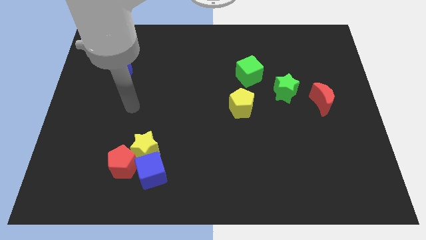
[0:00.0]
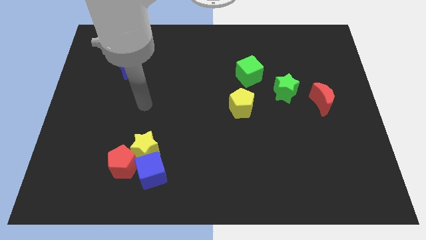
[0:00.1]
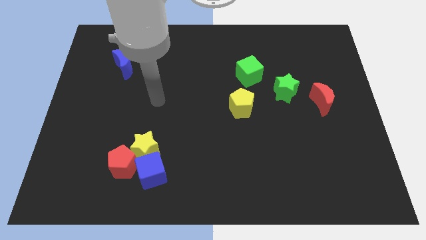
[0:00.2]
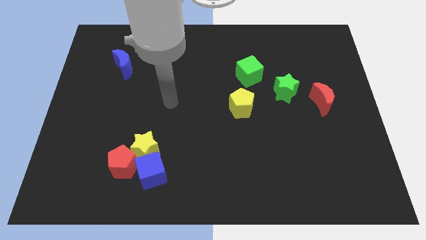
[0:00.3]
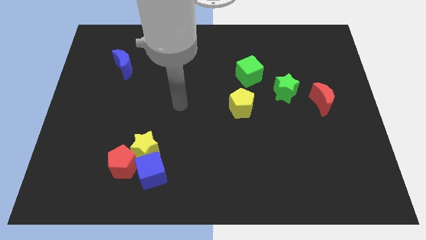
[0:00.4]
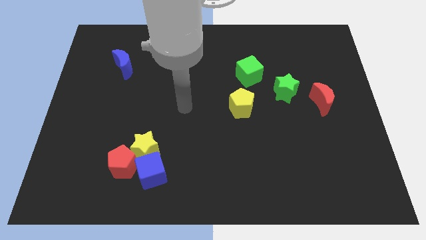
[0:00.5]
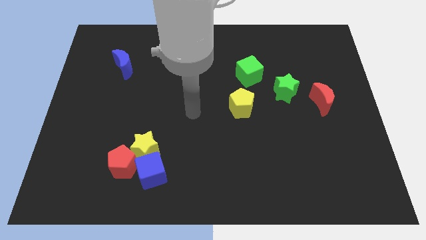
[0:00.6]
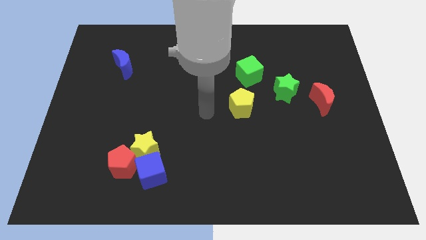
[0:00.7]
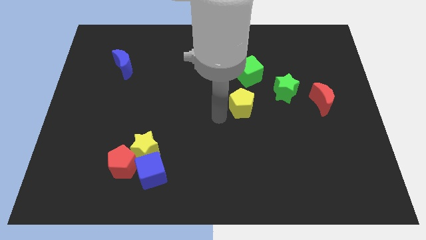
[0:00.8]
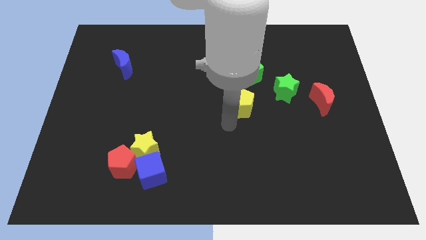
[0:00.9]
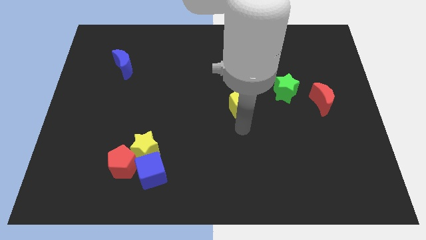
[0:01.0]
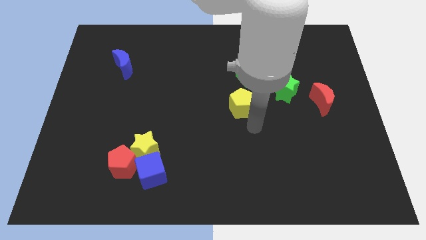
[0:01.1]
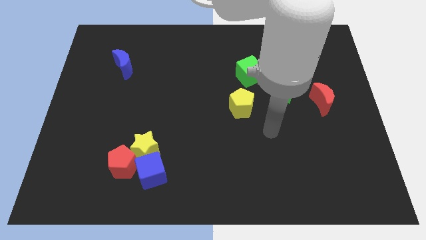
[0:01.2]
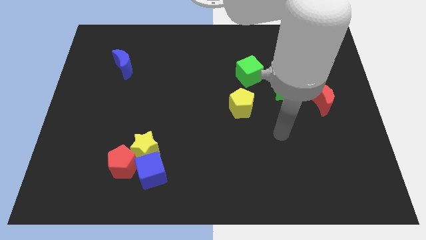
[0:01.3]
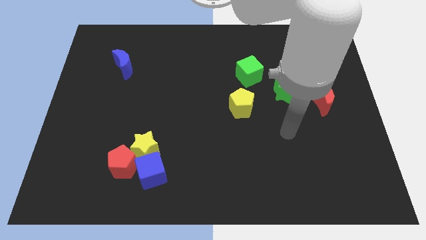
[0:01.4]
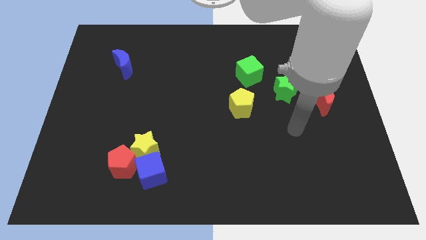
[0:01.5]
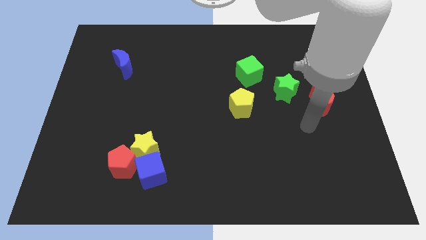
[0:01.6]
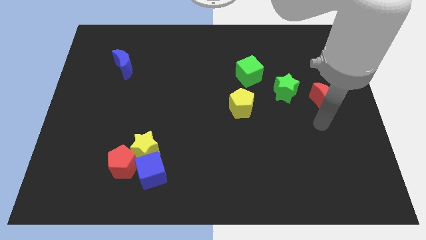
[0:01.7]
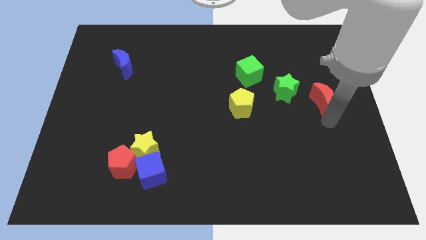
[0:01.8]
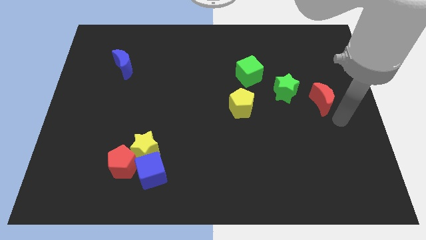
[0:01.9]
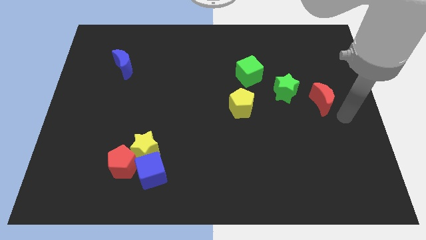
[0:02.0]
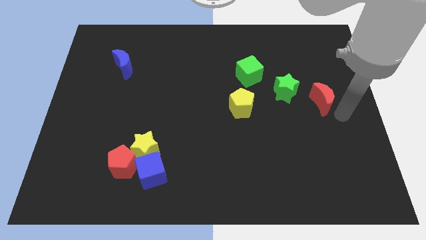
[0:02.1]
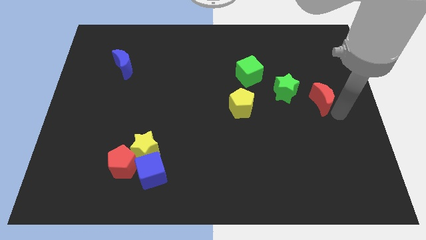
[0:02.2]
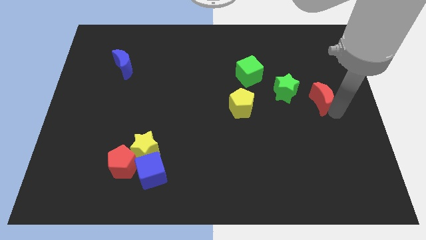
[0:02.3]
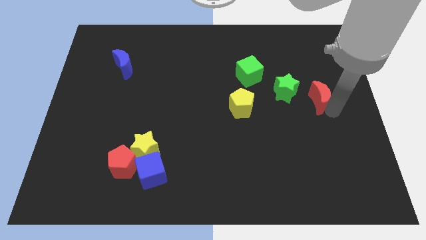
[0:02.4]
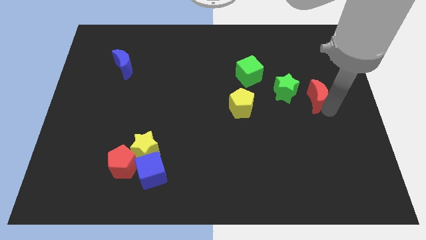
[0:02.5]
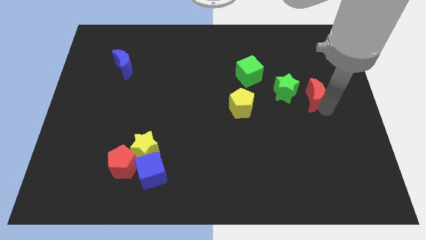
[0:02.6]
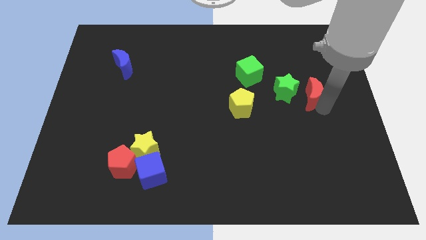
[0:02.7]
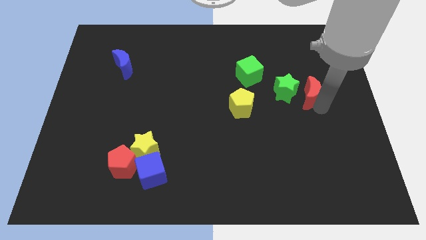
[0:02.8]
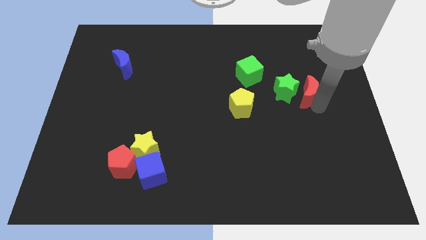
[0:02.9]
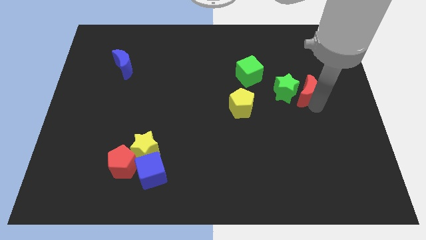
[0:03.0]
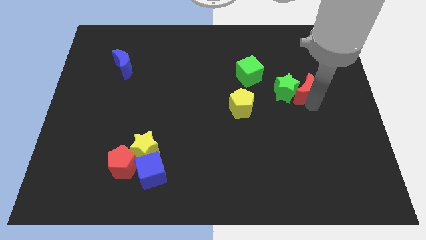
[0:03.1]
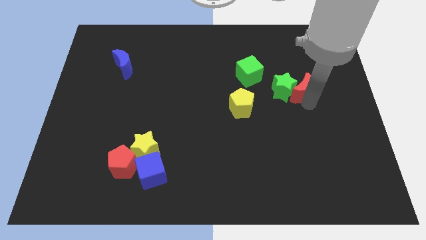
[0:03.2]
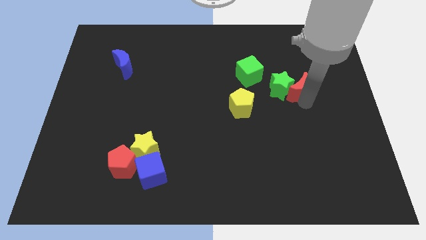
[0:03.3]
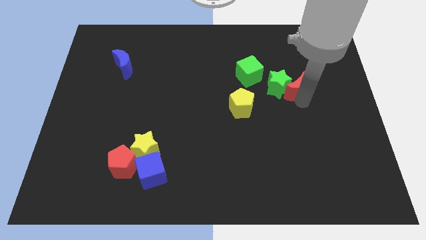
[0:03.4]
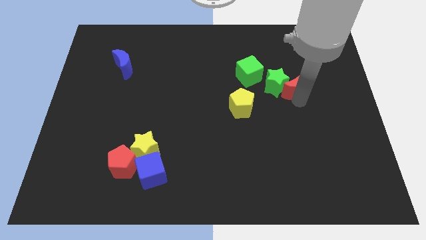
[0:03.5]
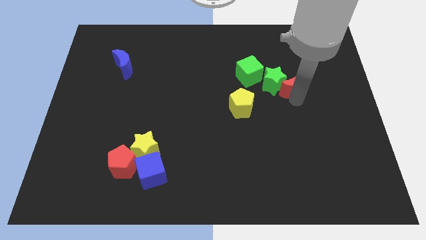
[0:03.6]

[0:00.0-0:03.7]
slightly slide the red moon diagonally upwards and to the left

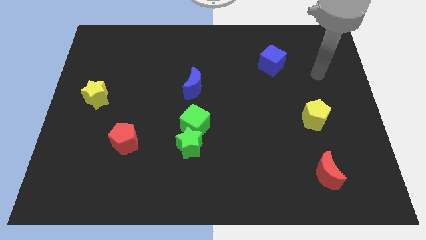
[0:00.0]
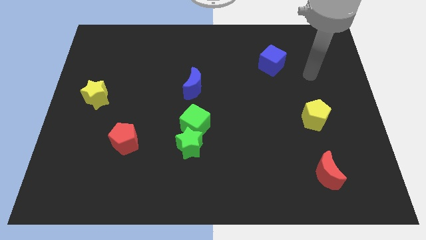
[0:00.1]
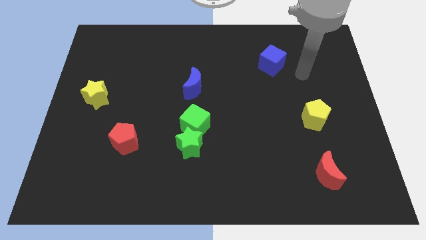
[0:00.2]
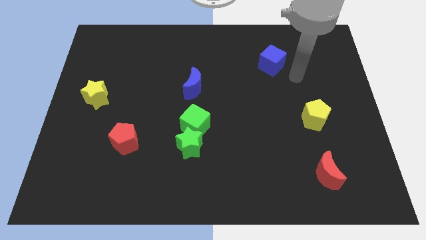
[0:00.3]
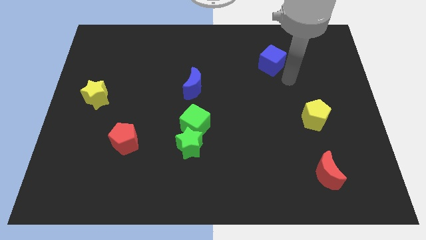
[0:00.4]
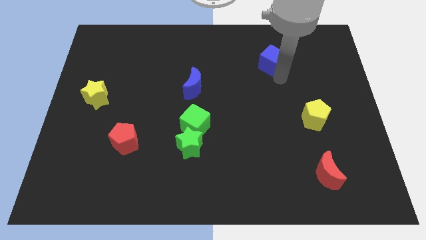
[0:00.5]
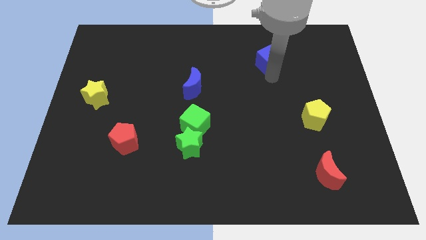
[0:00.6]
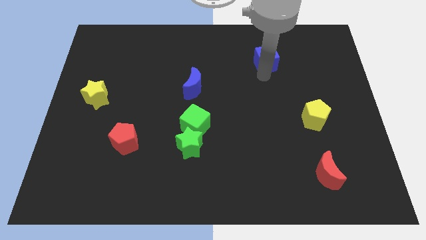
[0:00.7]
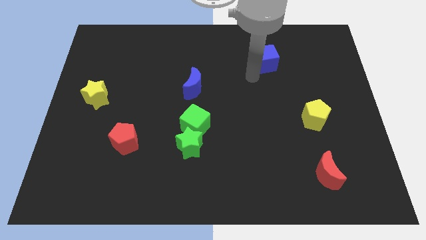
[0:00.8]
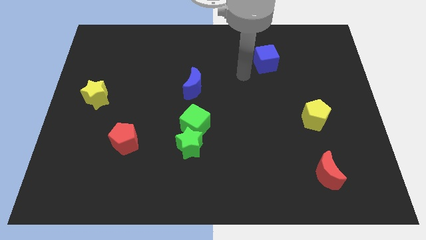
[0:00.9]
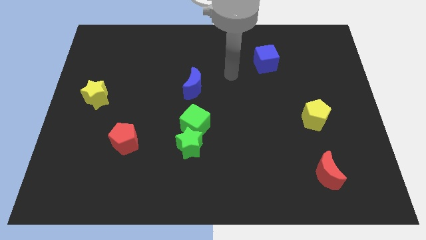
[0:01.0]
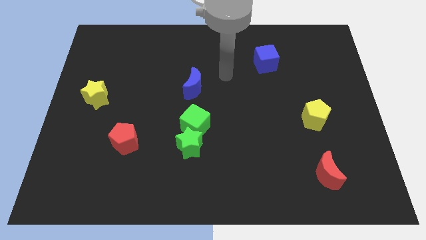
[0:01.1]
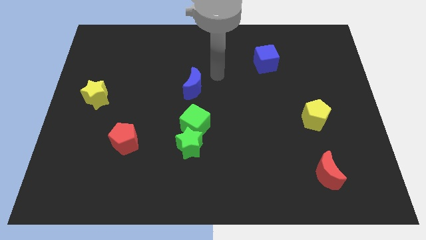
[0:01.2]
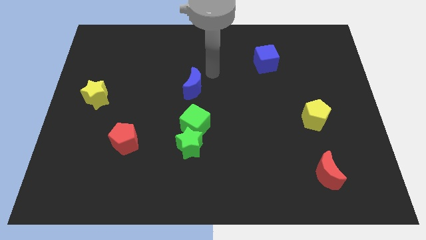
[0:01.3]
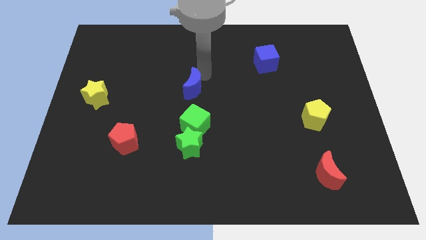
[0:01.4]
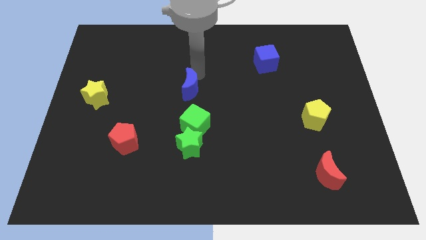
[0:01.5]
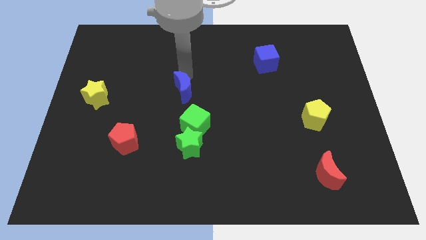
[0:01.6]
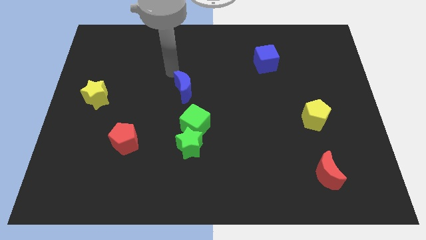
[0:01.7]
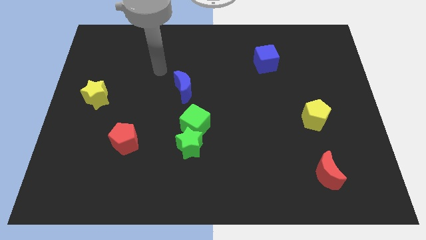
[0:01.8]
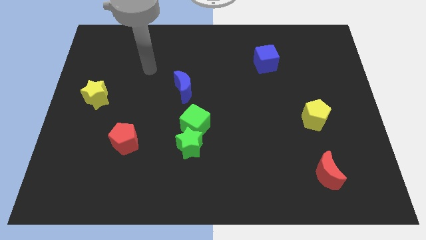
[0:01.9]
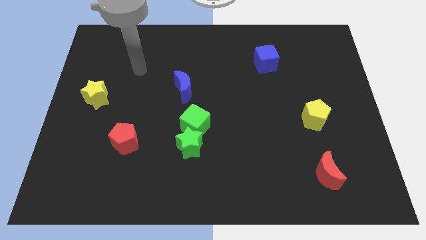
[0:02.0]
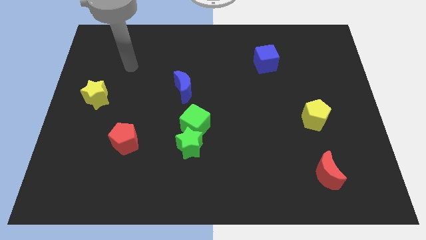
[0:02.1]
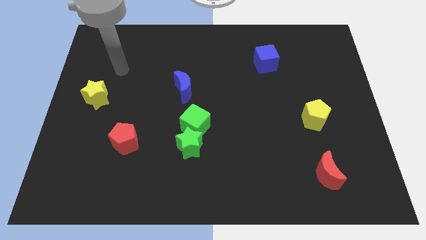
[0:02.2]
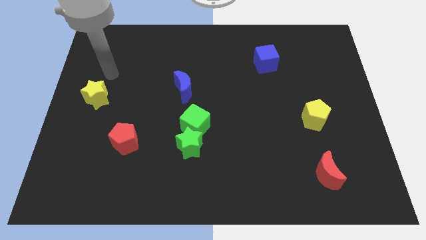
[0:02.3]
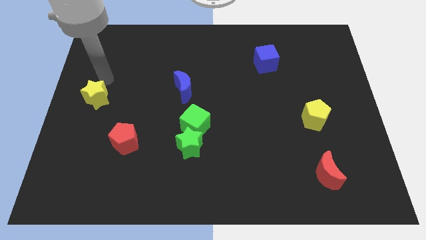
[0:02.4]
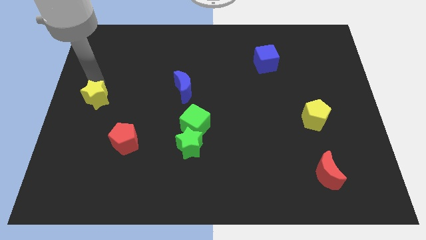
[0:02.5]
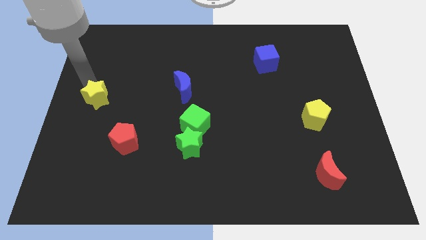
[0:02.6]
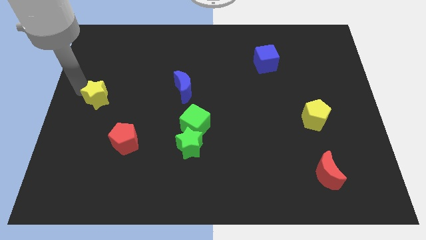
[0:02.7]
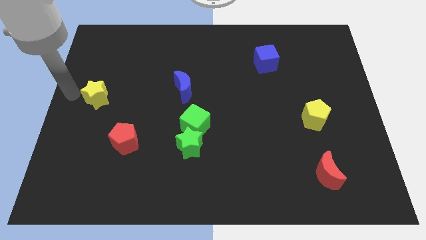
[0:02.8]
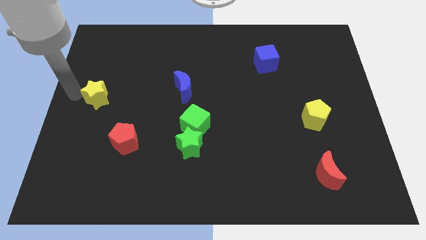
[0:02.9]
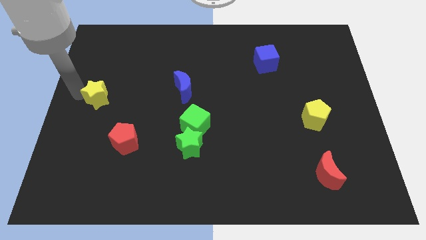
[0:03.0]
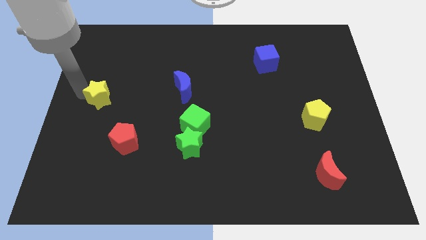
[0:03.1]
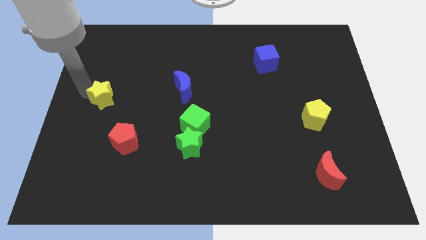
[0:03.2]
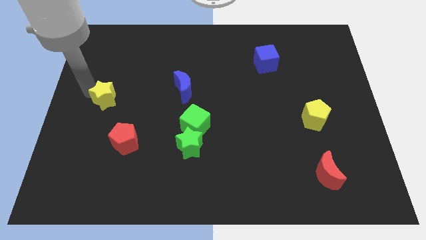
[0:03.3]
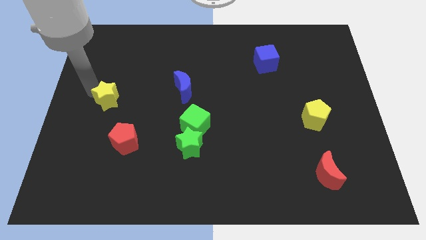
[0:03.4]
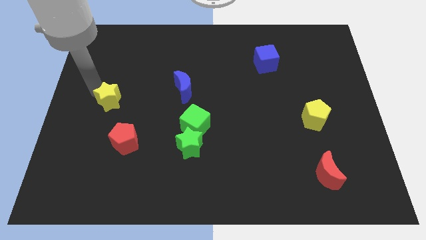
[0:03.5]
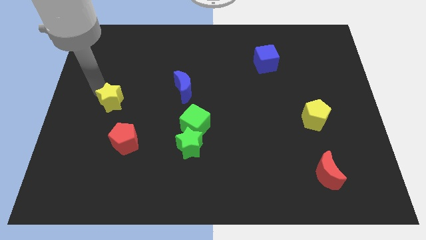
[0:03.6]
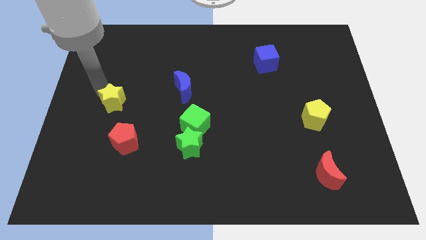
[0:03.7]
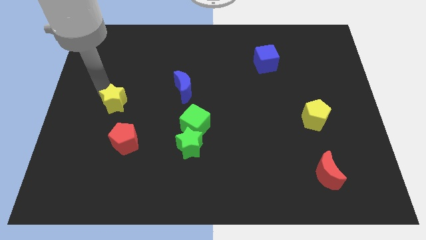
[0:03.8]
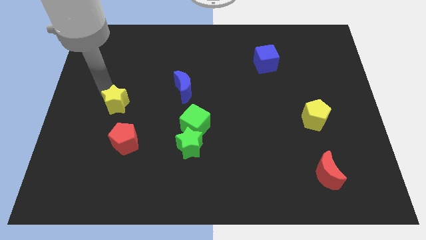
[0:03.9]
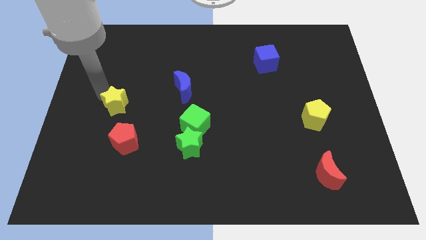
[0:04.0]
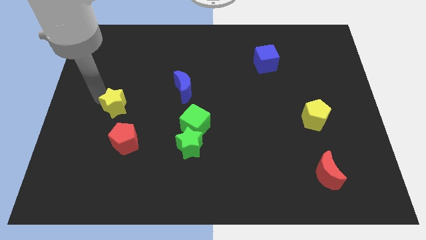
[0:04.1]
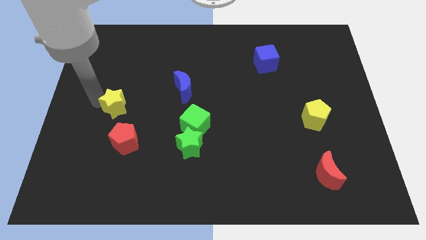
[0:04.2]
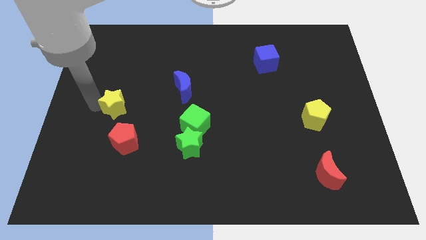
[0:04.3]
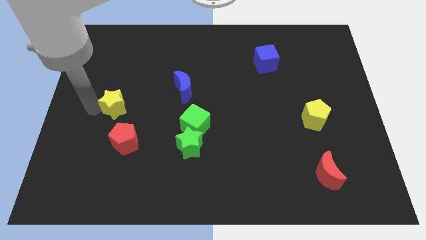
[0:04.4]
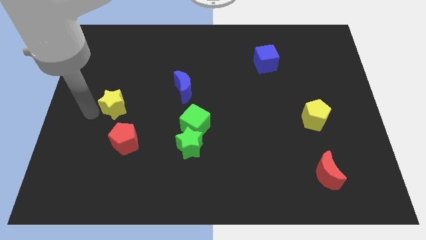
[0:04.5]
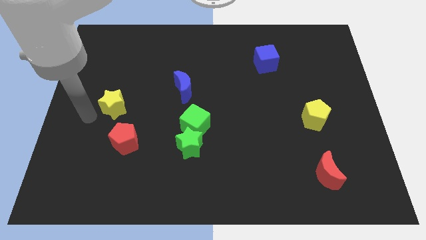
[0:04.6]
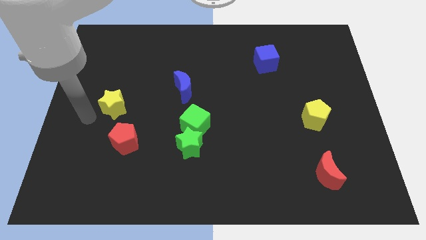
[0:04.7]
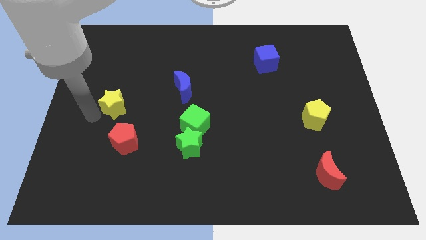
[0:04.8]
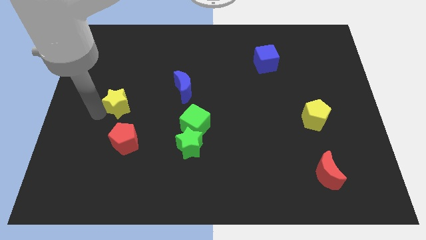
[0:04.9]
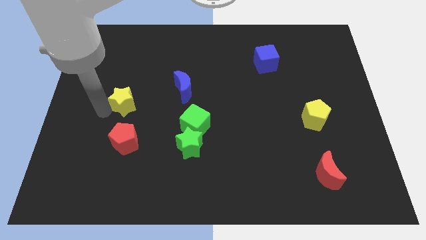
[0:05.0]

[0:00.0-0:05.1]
slightly push the yellow star to the right
